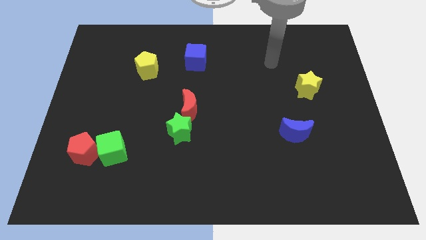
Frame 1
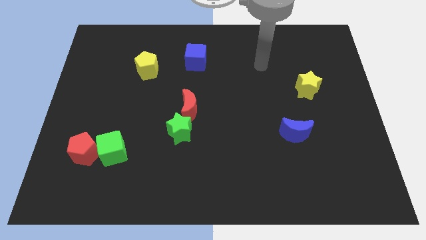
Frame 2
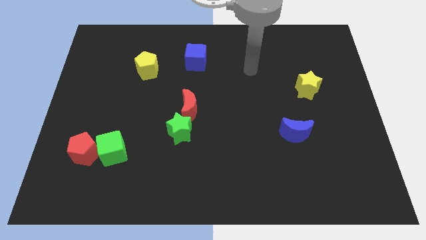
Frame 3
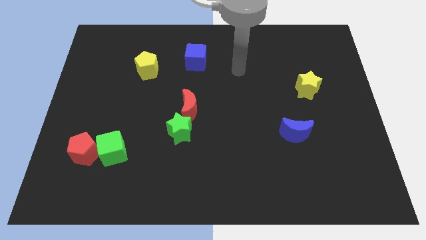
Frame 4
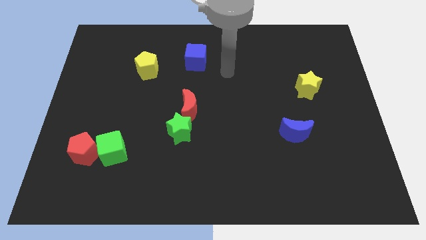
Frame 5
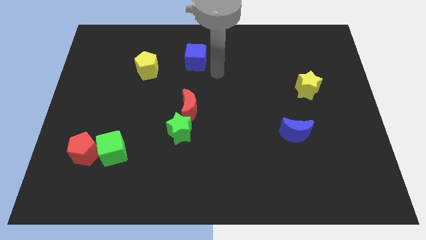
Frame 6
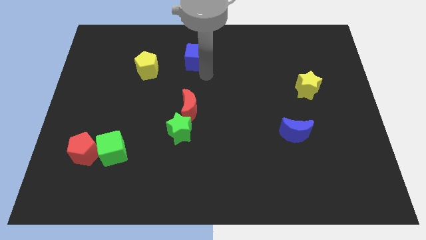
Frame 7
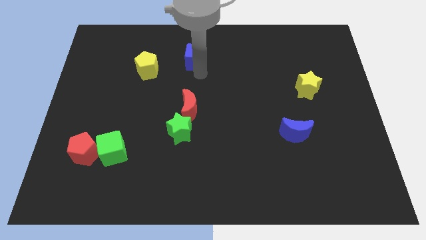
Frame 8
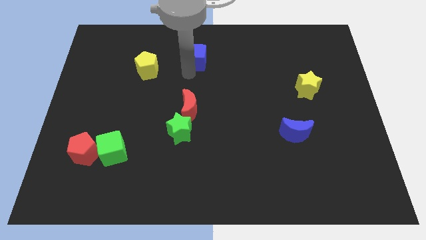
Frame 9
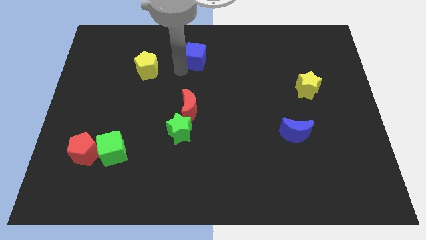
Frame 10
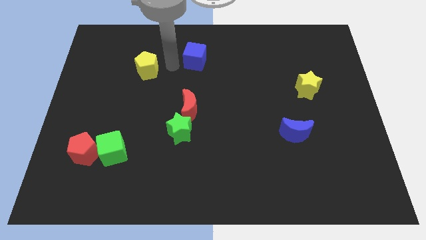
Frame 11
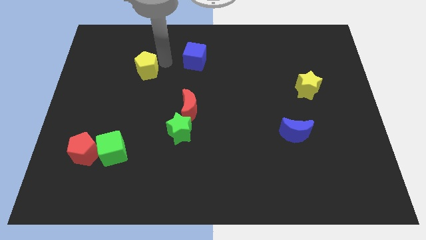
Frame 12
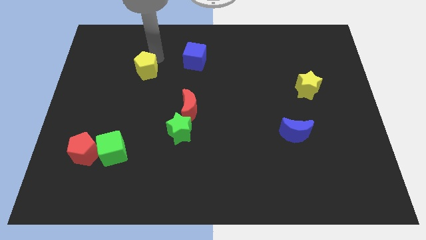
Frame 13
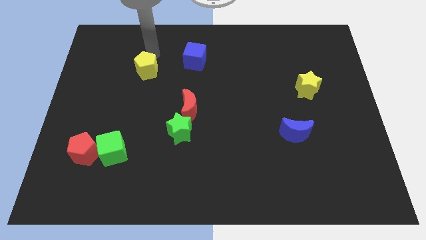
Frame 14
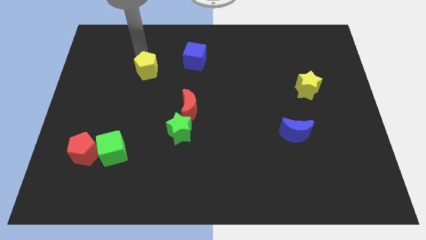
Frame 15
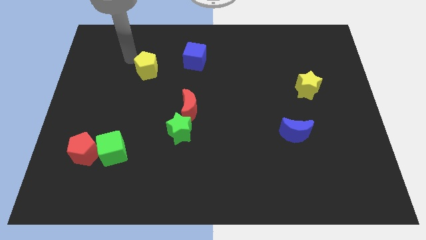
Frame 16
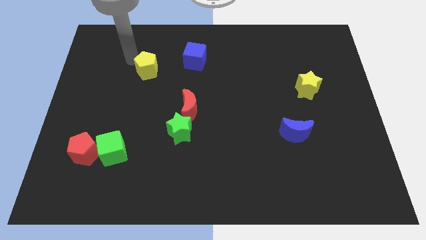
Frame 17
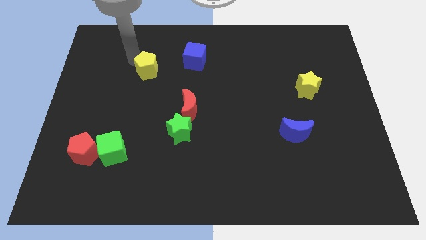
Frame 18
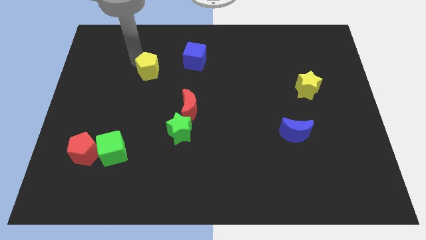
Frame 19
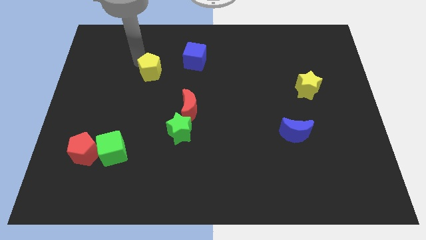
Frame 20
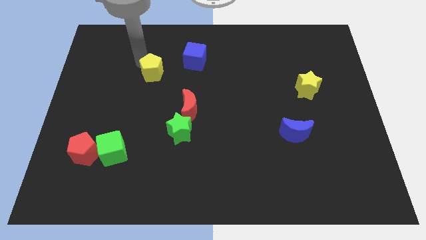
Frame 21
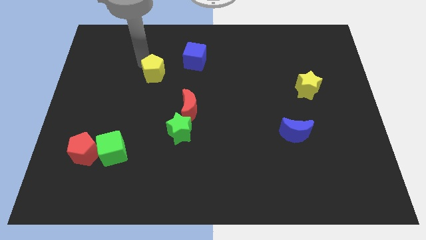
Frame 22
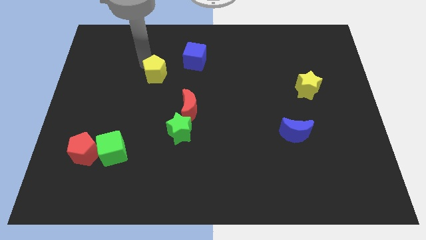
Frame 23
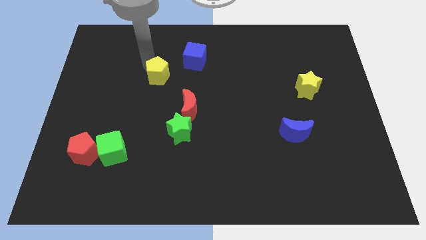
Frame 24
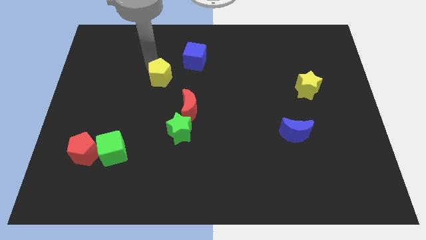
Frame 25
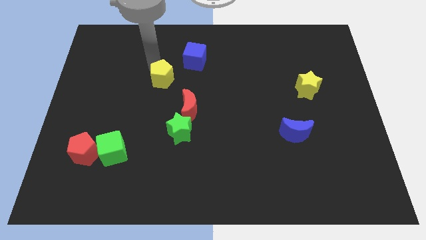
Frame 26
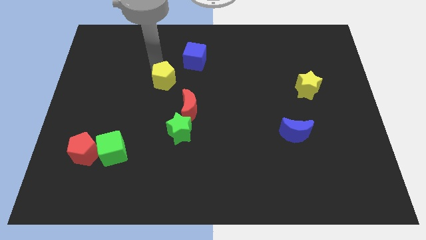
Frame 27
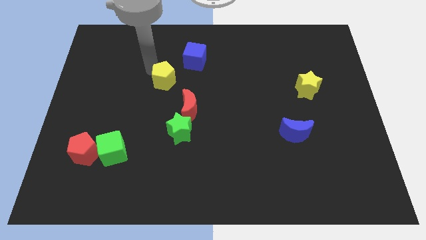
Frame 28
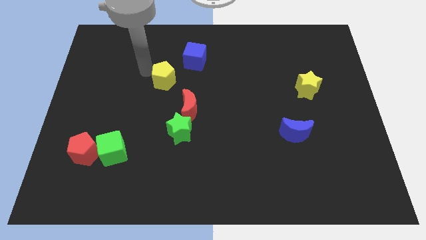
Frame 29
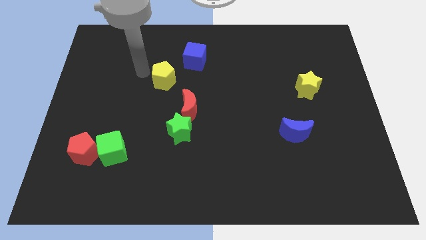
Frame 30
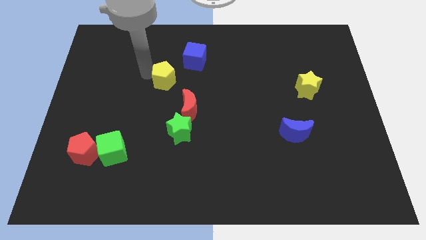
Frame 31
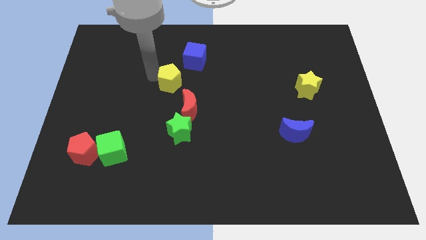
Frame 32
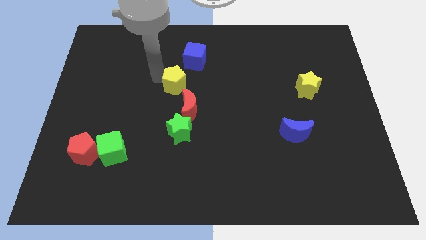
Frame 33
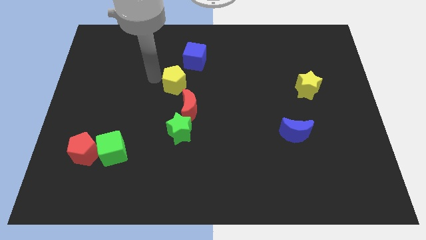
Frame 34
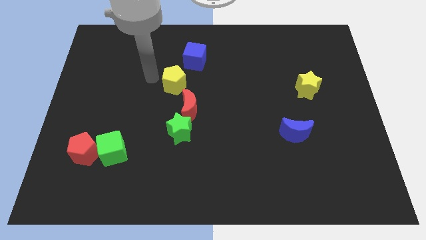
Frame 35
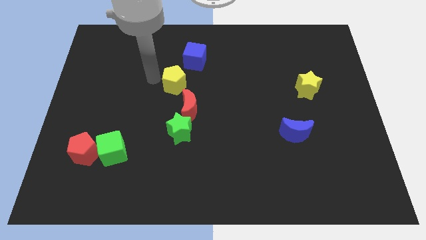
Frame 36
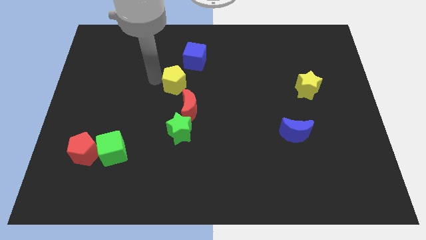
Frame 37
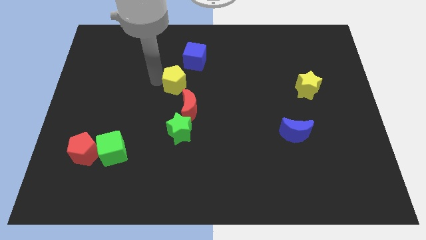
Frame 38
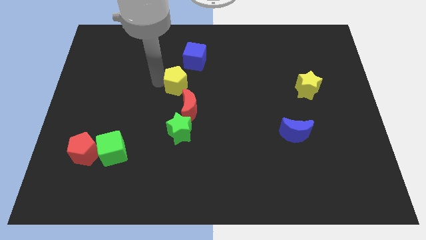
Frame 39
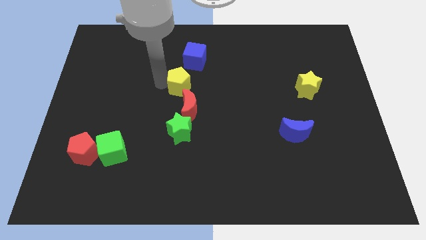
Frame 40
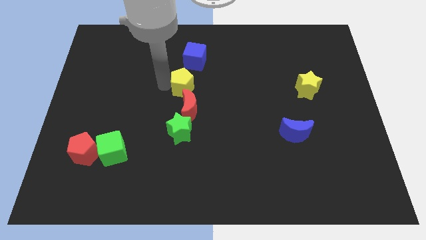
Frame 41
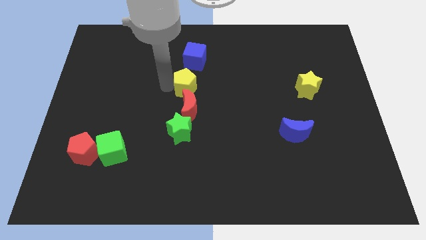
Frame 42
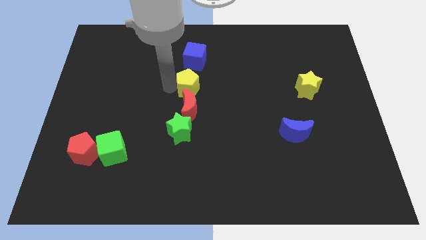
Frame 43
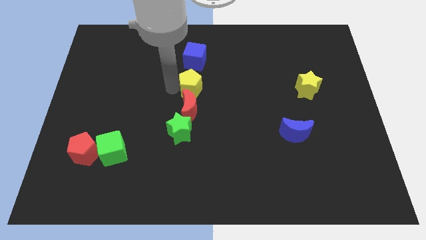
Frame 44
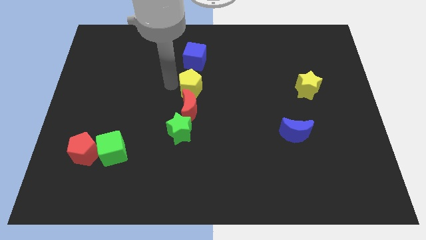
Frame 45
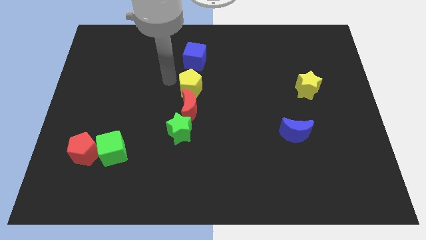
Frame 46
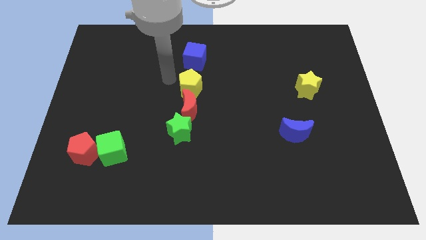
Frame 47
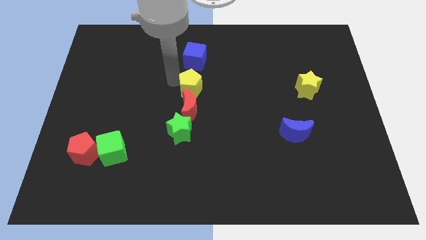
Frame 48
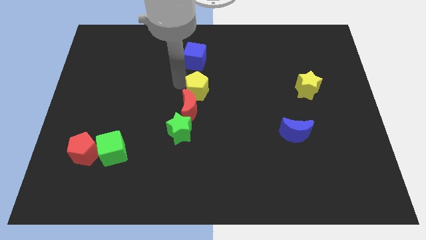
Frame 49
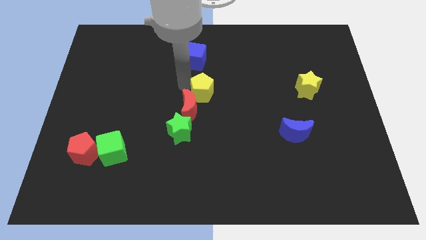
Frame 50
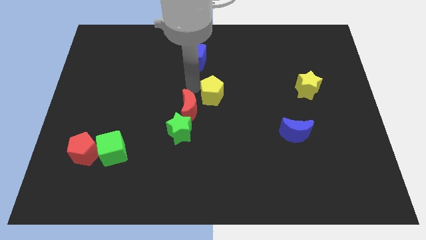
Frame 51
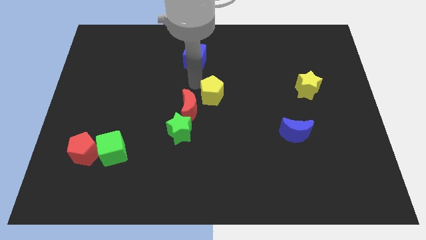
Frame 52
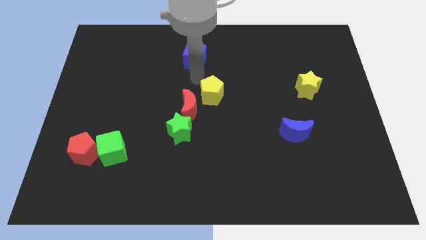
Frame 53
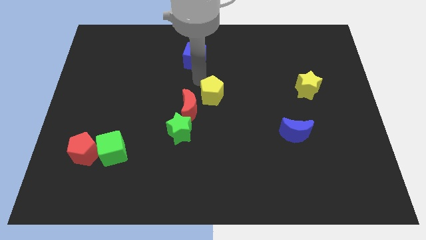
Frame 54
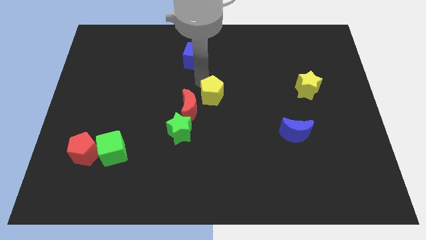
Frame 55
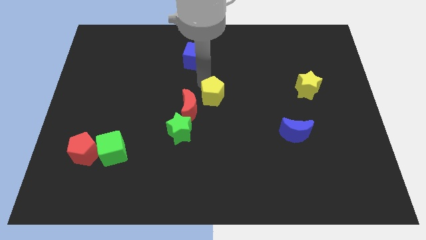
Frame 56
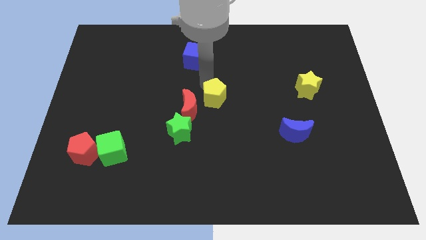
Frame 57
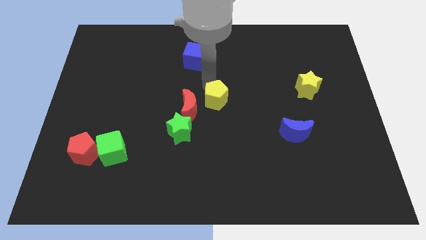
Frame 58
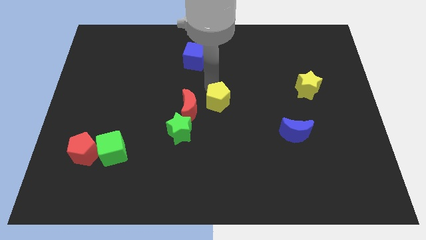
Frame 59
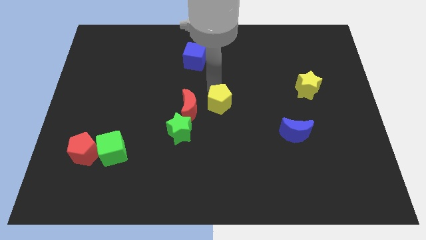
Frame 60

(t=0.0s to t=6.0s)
move the yellow pentagon downwards and then to the right

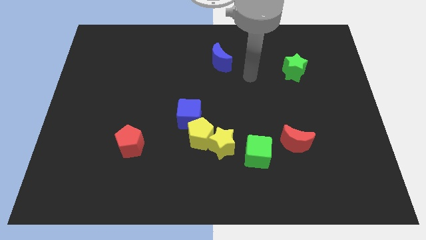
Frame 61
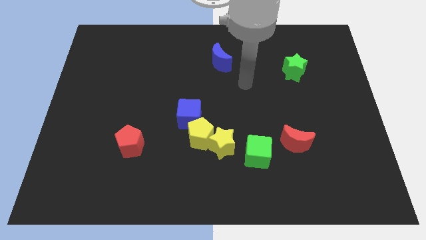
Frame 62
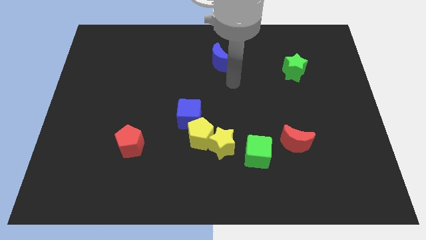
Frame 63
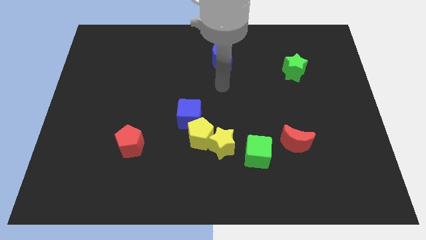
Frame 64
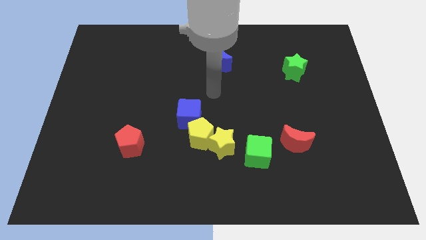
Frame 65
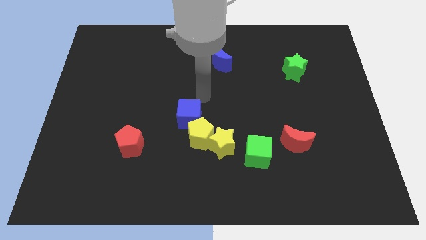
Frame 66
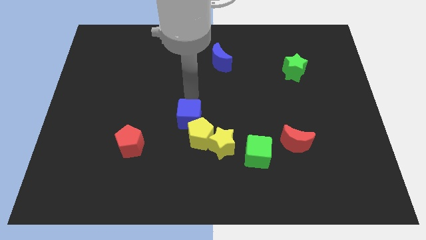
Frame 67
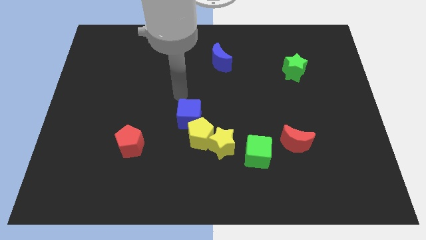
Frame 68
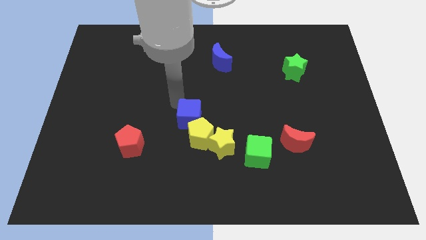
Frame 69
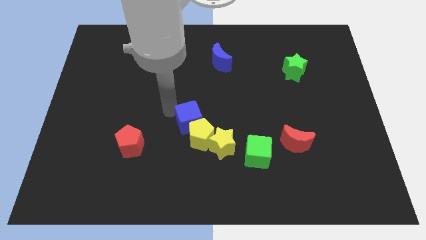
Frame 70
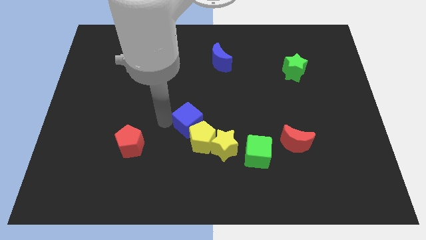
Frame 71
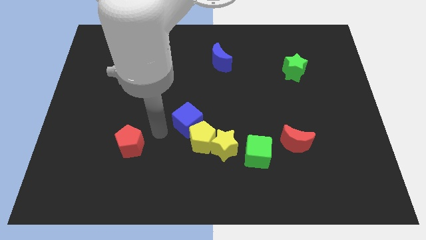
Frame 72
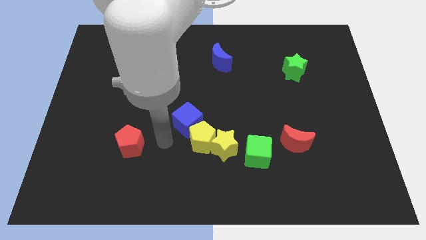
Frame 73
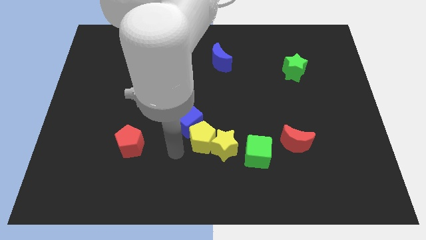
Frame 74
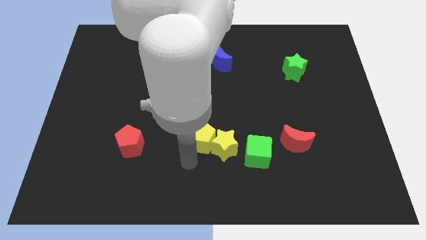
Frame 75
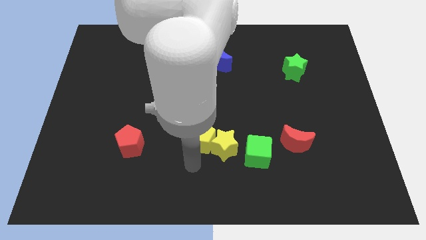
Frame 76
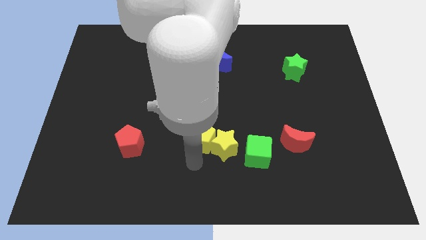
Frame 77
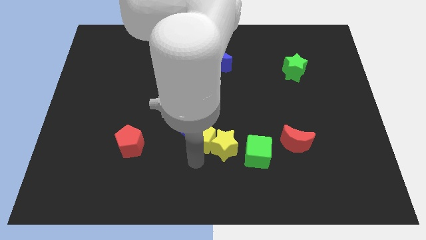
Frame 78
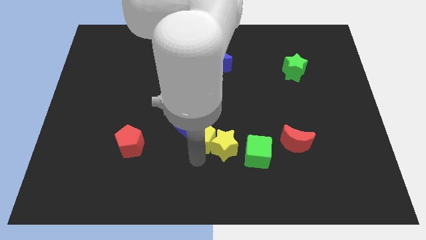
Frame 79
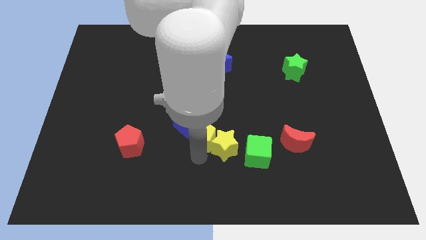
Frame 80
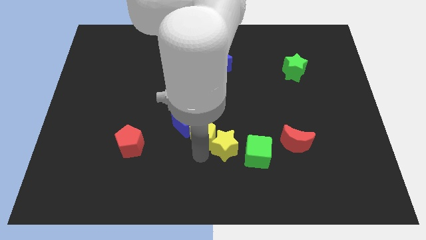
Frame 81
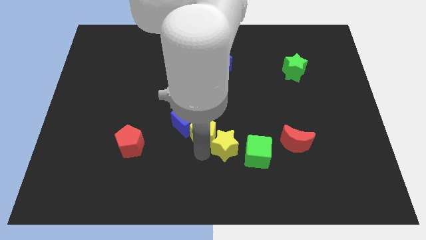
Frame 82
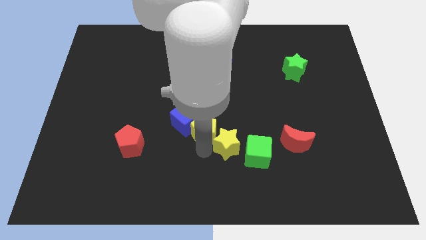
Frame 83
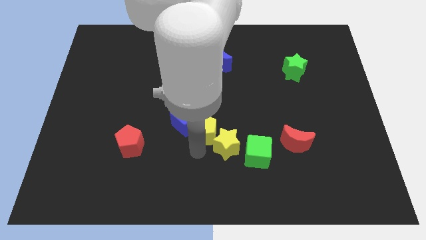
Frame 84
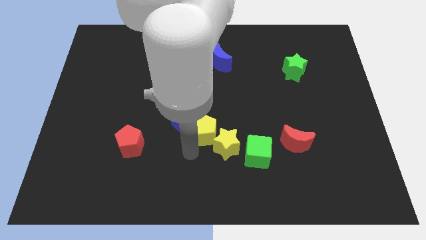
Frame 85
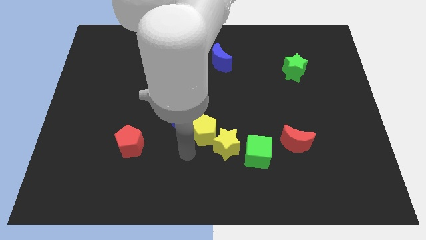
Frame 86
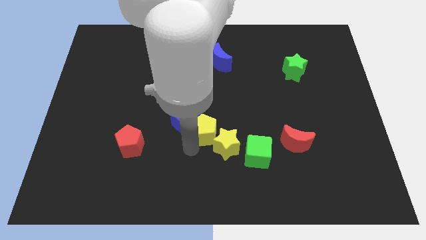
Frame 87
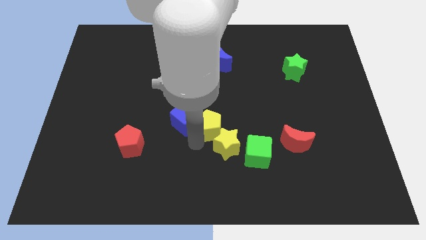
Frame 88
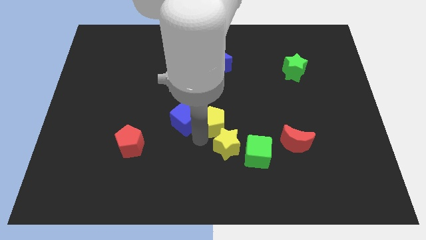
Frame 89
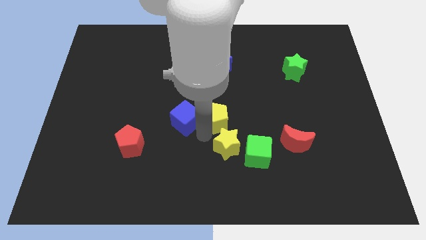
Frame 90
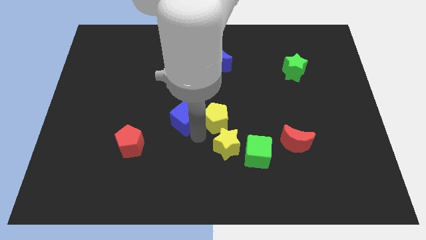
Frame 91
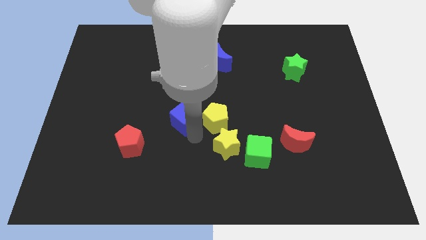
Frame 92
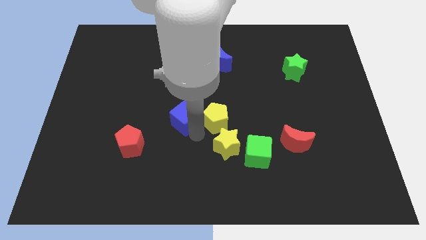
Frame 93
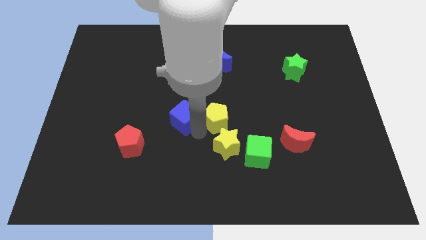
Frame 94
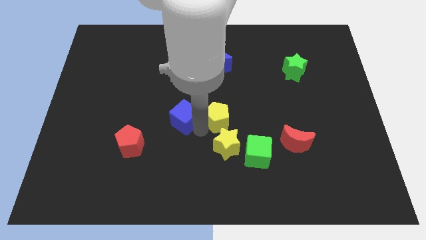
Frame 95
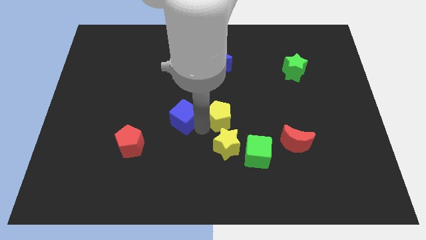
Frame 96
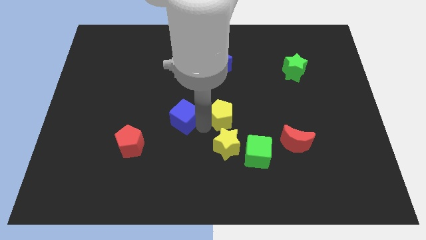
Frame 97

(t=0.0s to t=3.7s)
slide the yellow pentagon a bit diagonally upwards and right
